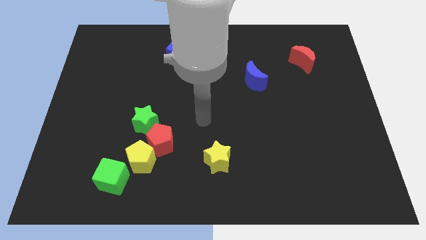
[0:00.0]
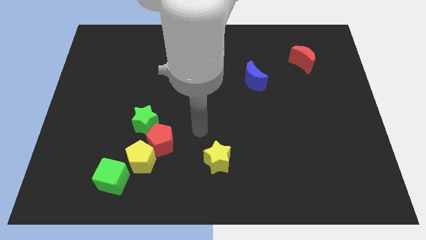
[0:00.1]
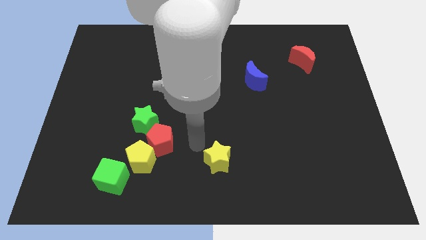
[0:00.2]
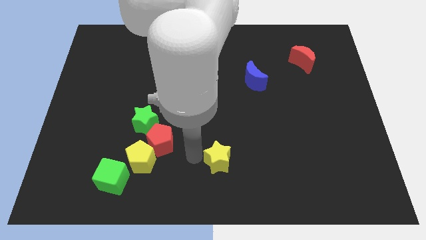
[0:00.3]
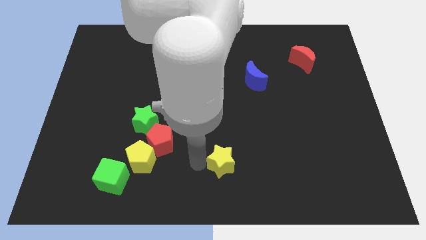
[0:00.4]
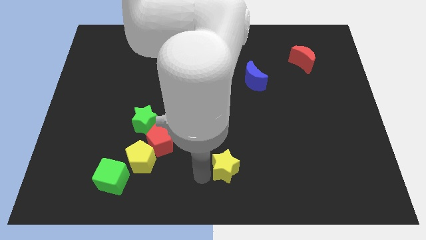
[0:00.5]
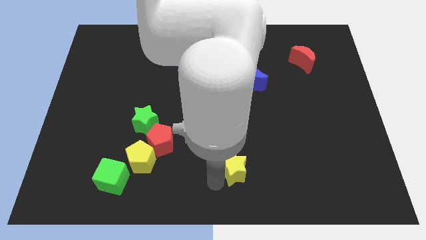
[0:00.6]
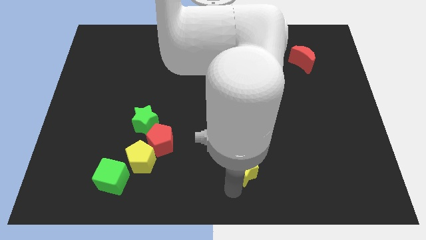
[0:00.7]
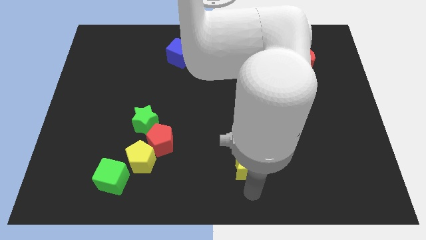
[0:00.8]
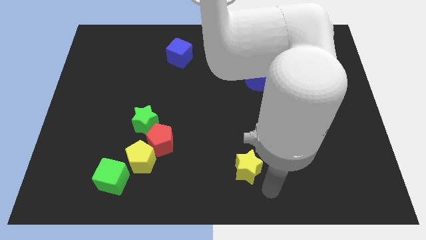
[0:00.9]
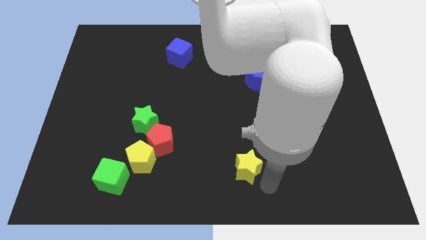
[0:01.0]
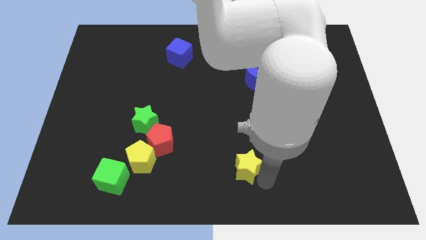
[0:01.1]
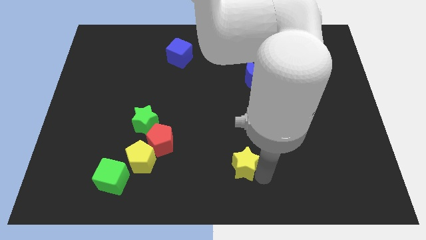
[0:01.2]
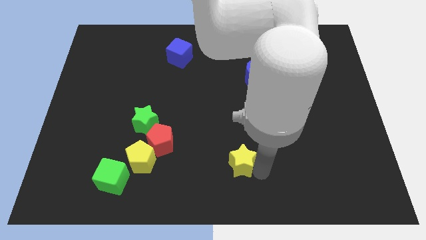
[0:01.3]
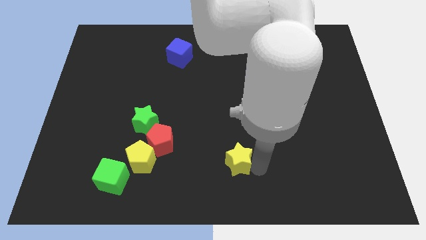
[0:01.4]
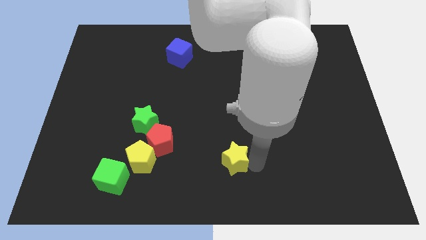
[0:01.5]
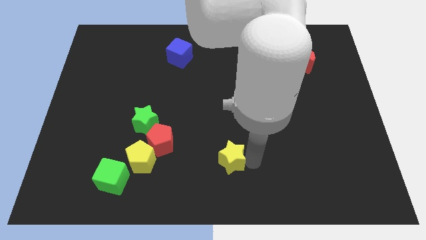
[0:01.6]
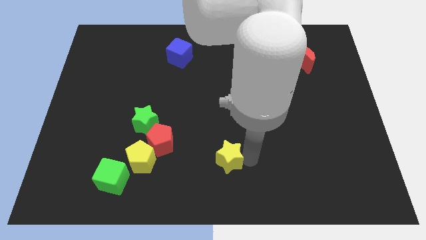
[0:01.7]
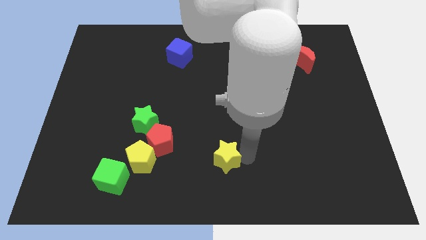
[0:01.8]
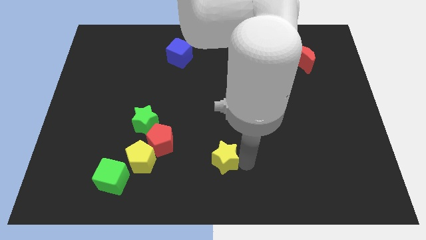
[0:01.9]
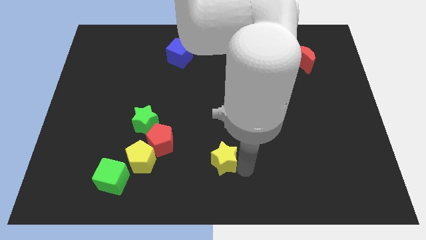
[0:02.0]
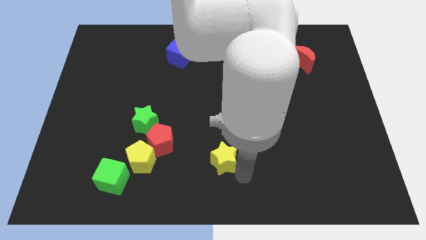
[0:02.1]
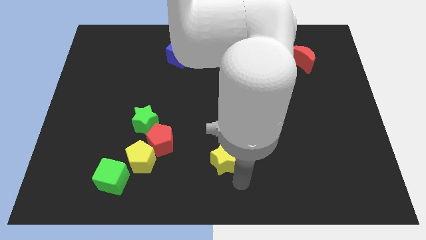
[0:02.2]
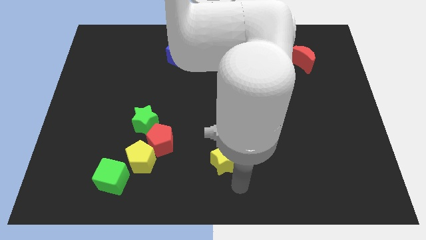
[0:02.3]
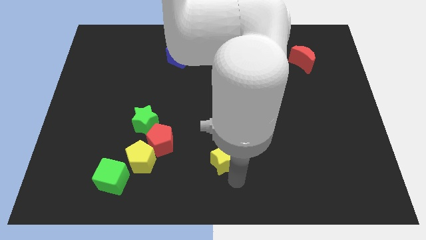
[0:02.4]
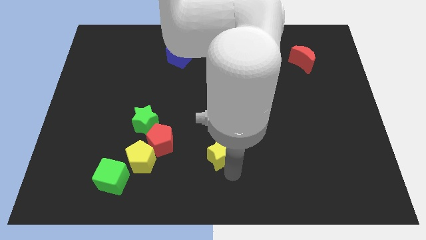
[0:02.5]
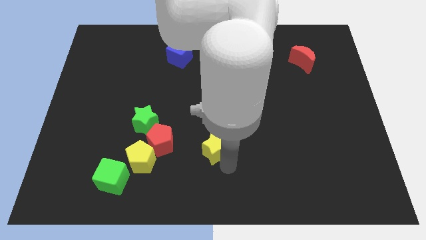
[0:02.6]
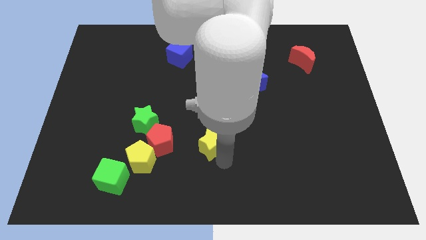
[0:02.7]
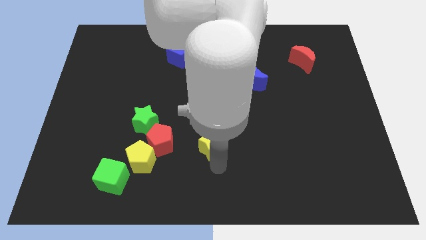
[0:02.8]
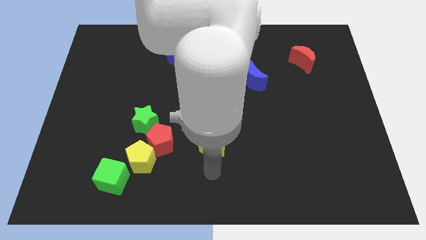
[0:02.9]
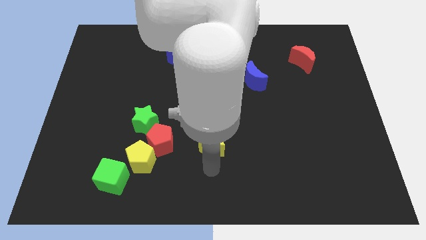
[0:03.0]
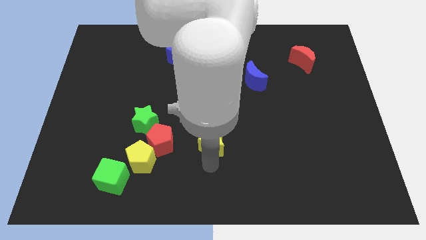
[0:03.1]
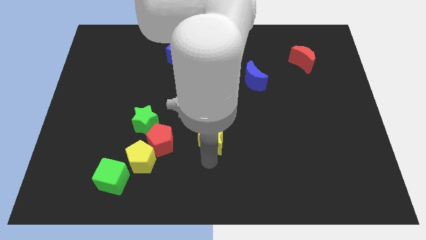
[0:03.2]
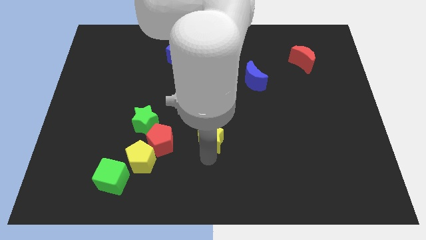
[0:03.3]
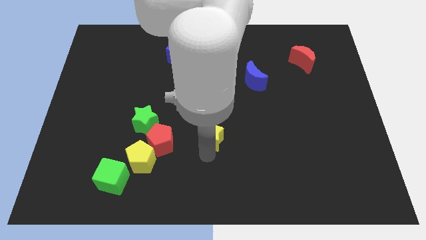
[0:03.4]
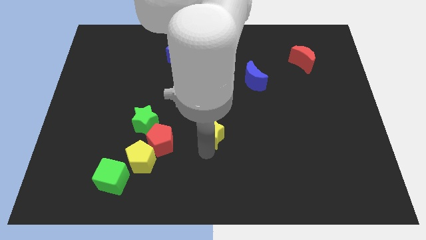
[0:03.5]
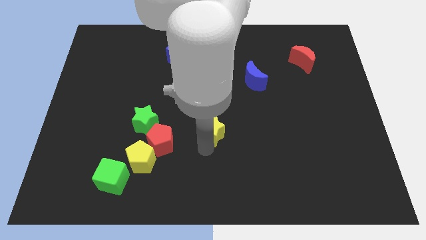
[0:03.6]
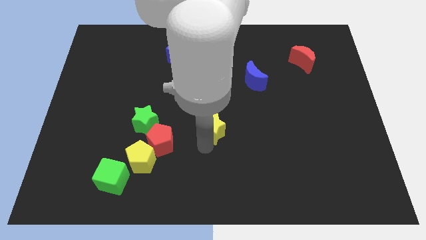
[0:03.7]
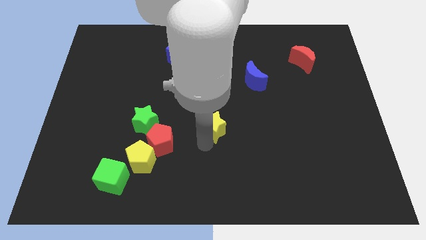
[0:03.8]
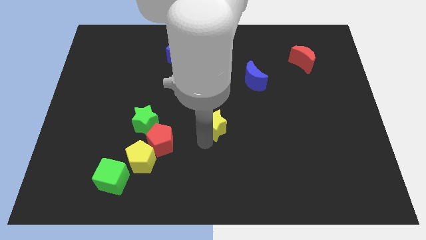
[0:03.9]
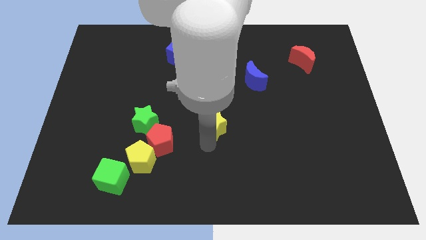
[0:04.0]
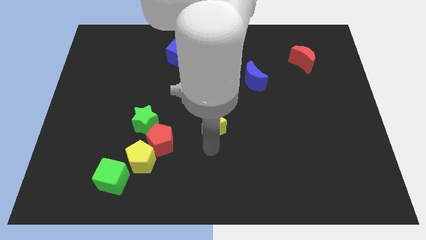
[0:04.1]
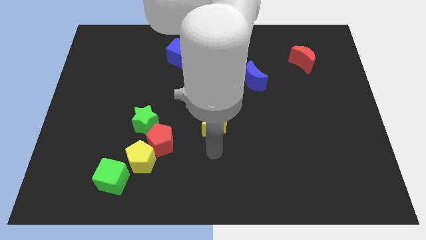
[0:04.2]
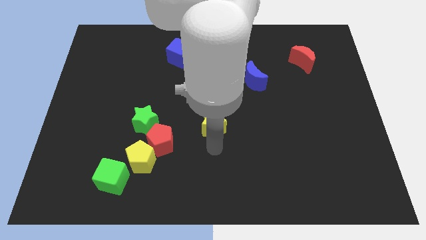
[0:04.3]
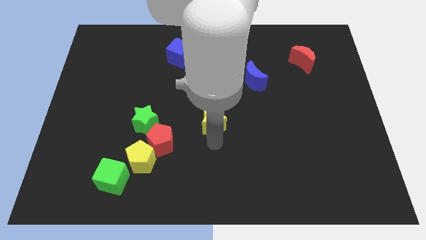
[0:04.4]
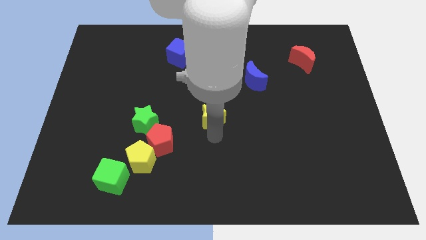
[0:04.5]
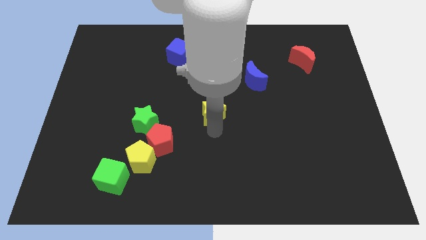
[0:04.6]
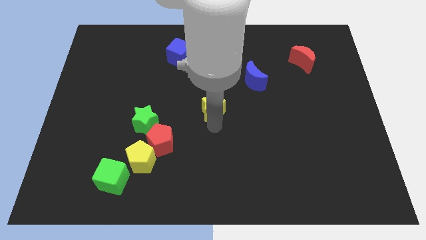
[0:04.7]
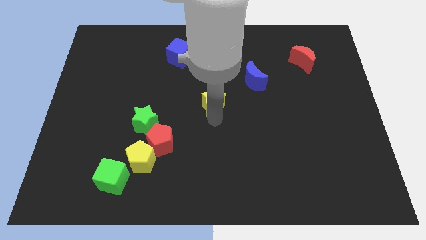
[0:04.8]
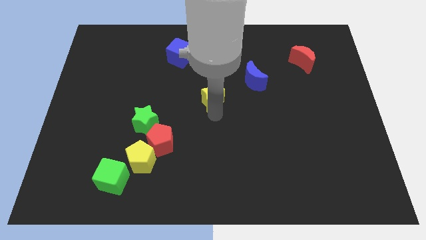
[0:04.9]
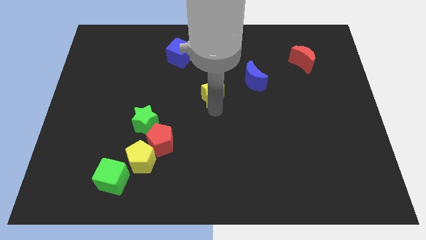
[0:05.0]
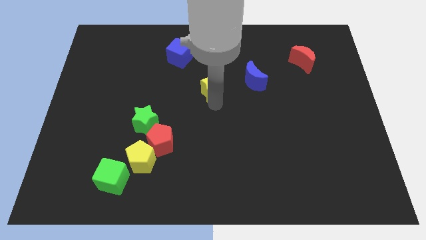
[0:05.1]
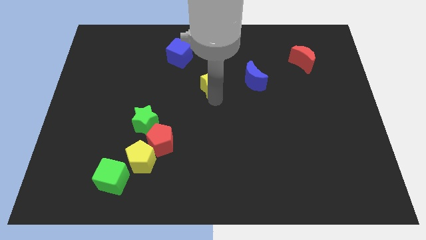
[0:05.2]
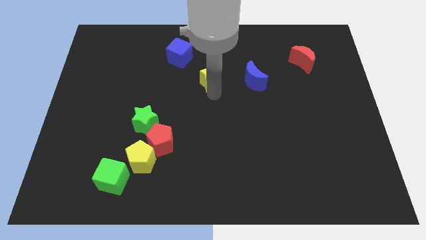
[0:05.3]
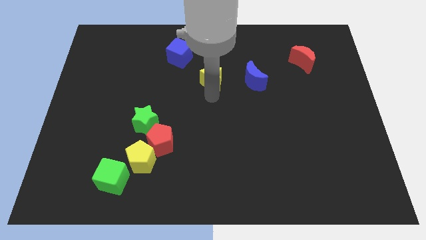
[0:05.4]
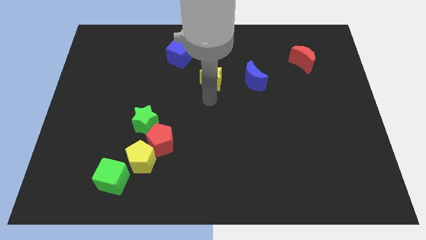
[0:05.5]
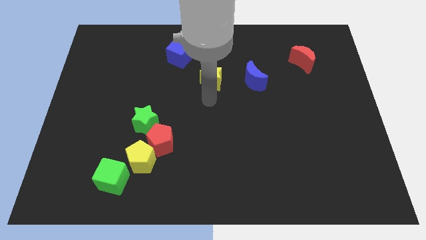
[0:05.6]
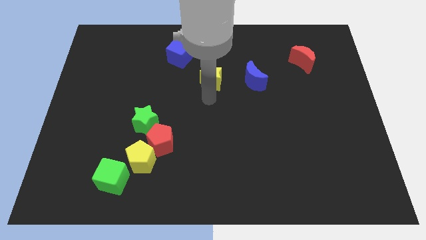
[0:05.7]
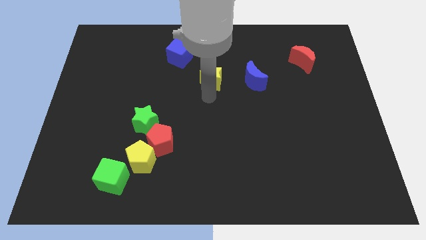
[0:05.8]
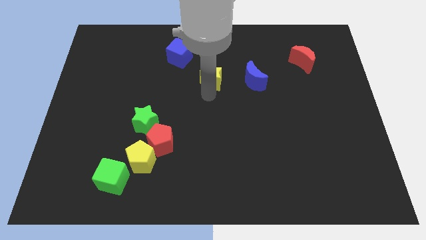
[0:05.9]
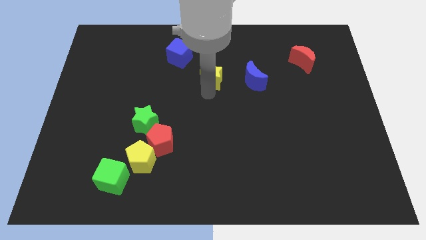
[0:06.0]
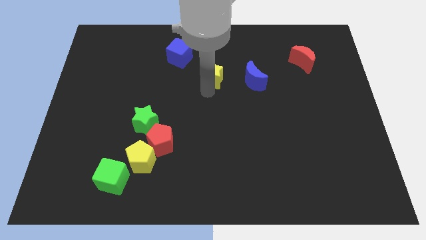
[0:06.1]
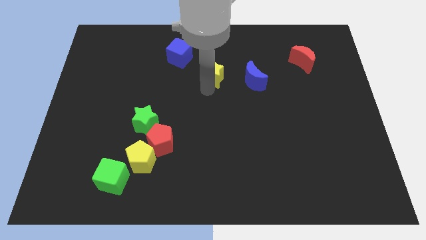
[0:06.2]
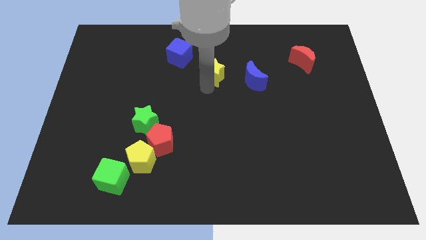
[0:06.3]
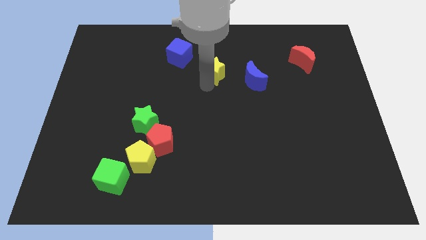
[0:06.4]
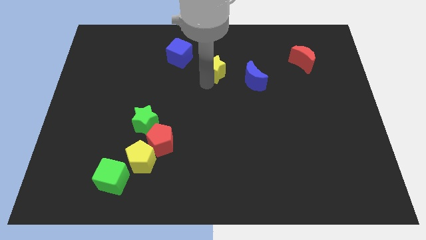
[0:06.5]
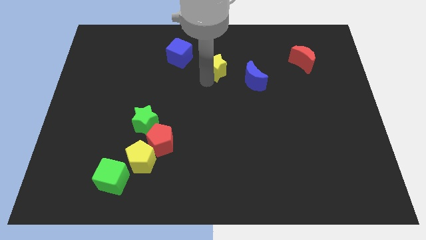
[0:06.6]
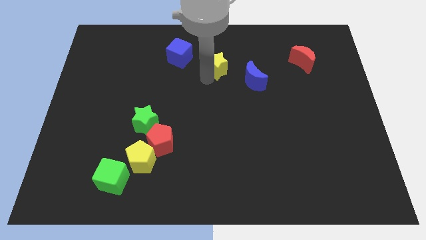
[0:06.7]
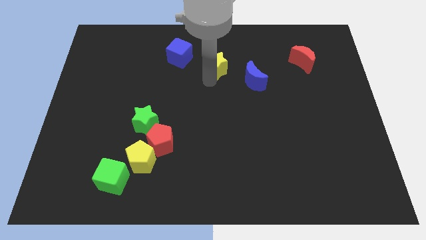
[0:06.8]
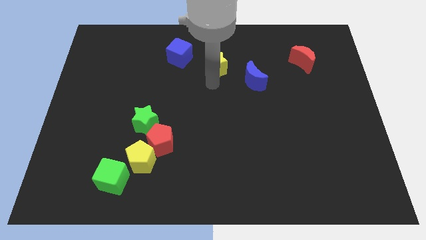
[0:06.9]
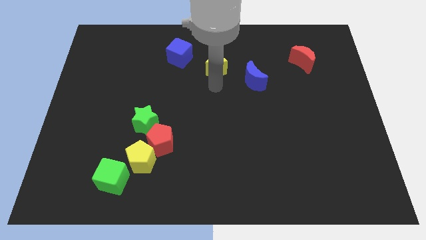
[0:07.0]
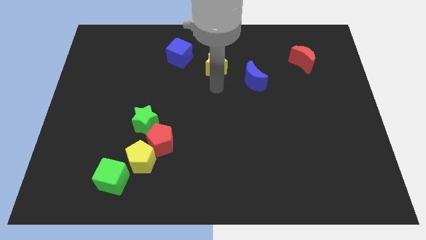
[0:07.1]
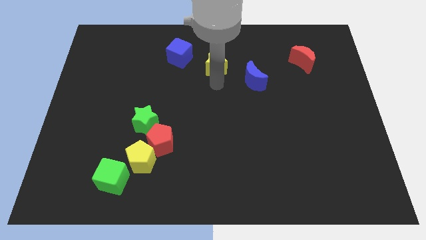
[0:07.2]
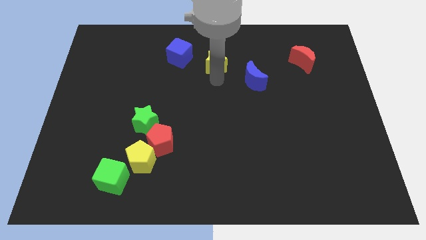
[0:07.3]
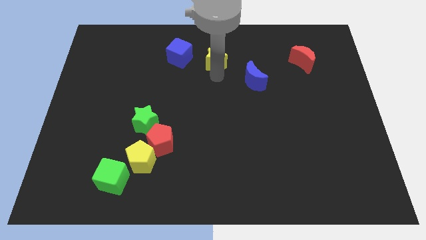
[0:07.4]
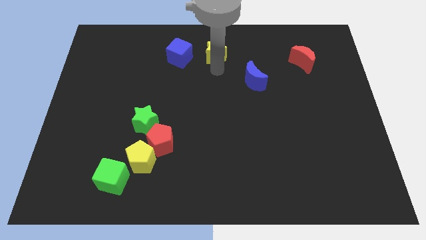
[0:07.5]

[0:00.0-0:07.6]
move the yellow star to the top
